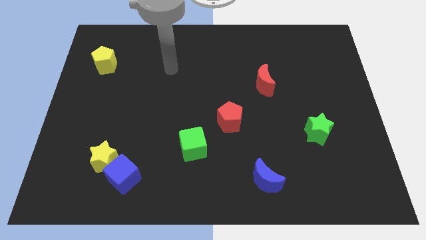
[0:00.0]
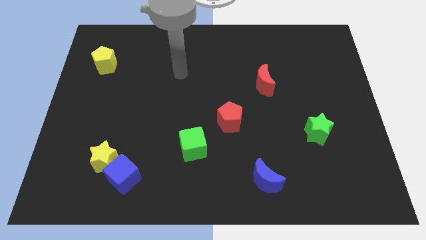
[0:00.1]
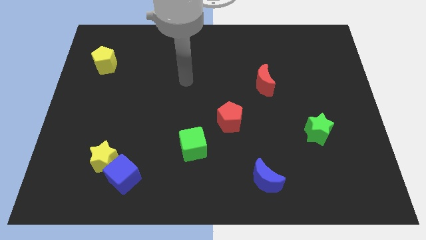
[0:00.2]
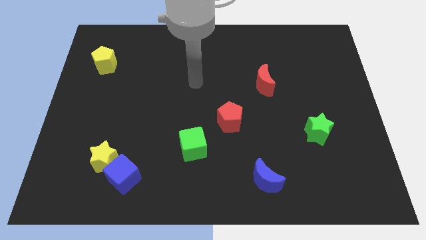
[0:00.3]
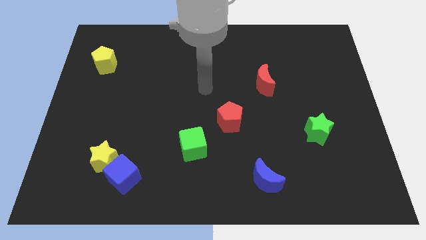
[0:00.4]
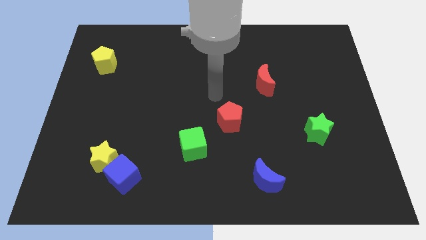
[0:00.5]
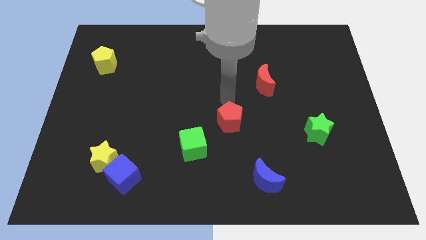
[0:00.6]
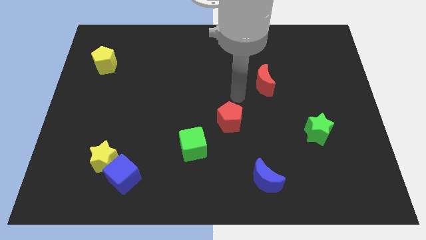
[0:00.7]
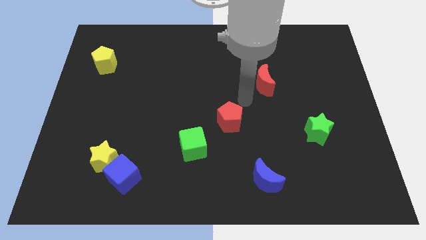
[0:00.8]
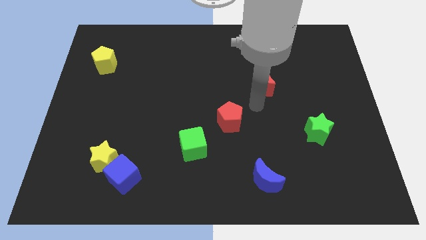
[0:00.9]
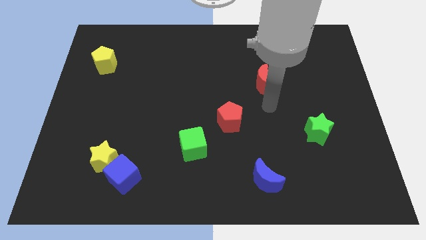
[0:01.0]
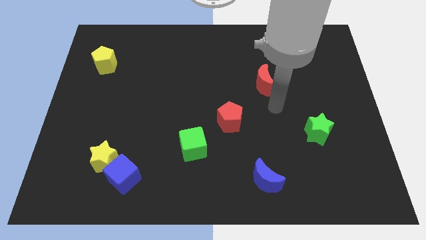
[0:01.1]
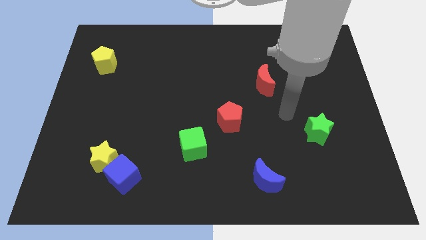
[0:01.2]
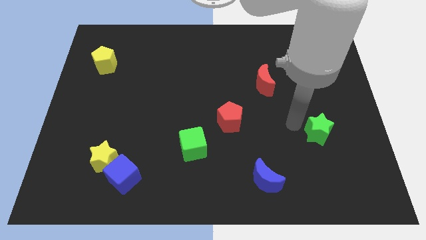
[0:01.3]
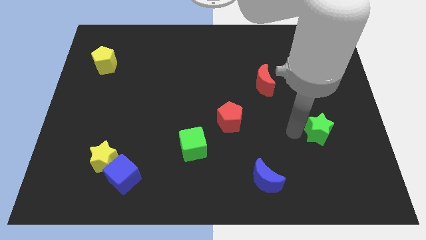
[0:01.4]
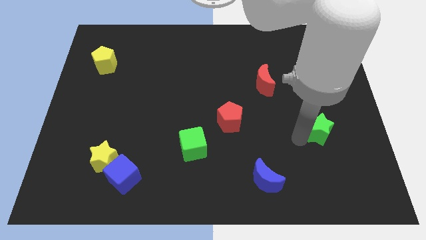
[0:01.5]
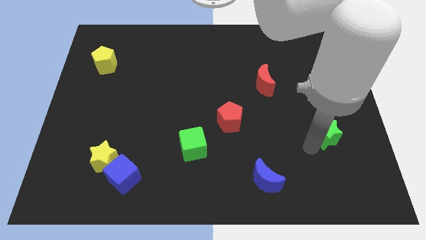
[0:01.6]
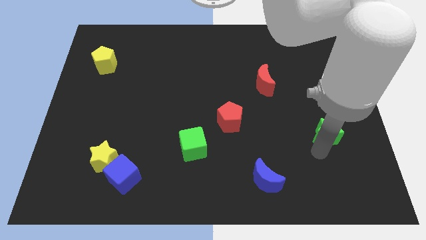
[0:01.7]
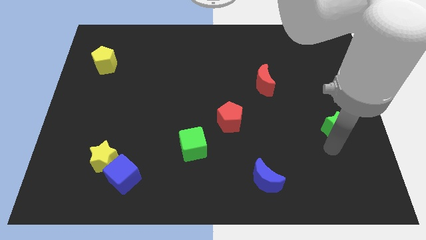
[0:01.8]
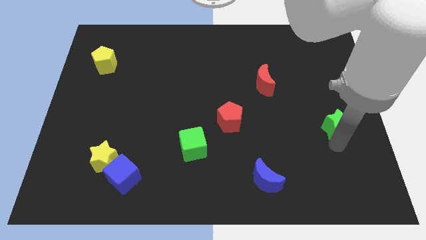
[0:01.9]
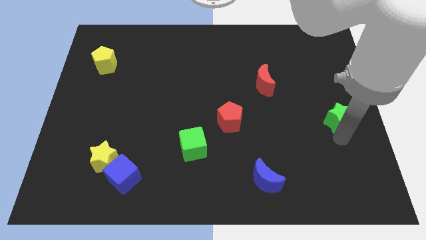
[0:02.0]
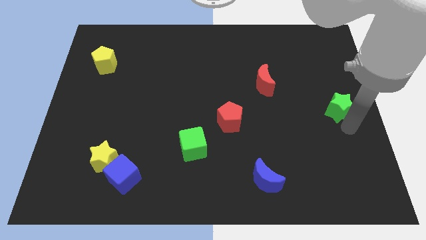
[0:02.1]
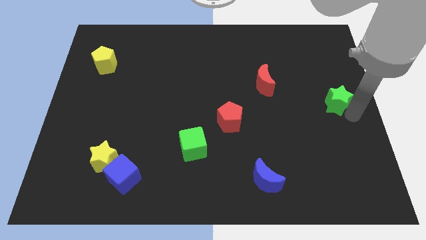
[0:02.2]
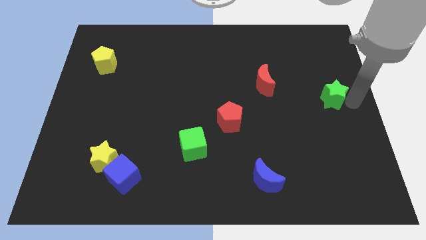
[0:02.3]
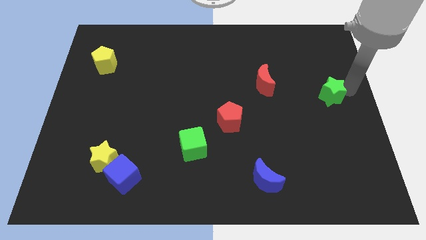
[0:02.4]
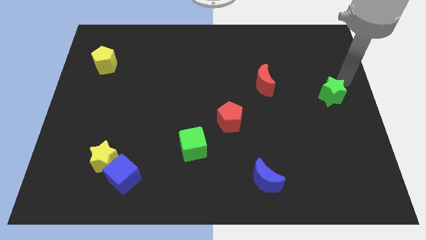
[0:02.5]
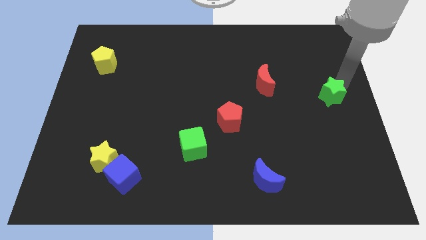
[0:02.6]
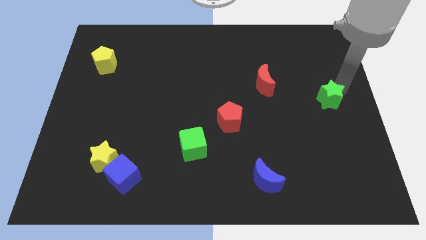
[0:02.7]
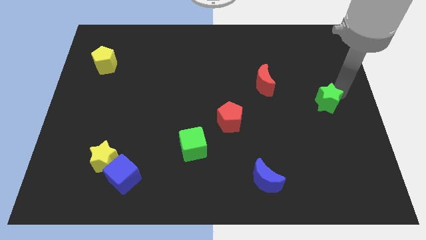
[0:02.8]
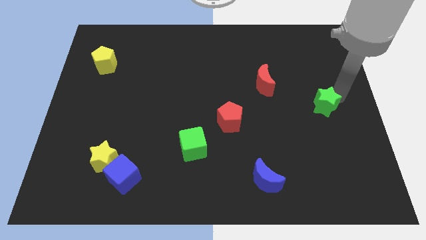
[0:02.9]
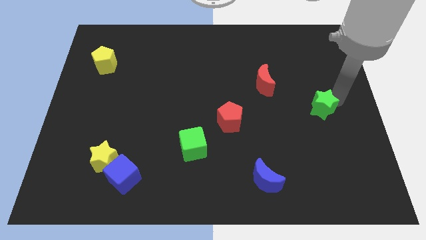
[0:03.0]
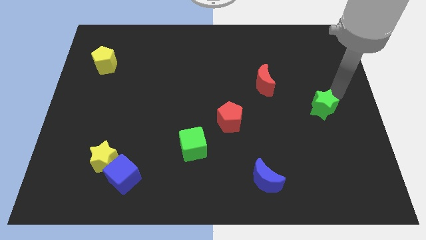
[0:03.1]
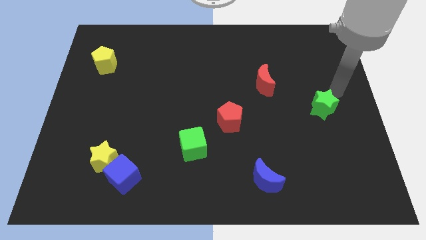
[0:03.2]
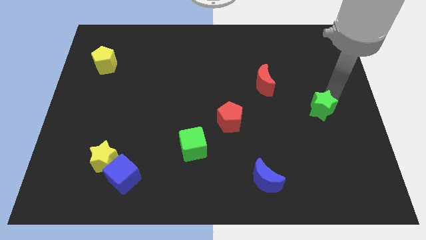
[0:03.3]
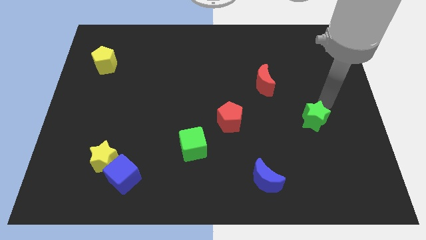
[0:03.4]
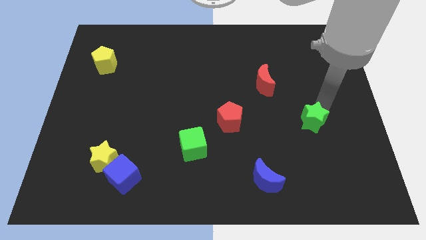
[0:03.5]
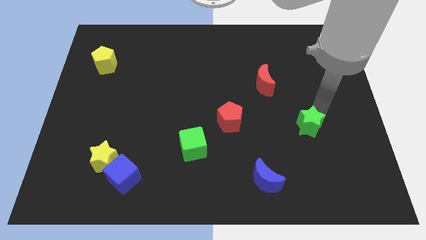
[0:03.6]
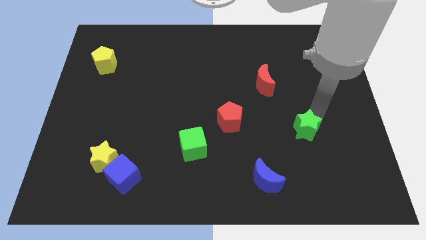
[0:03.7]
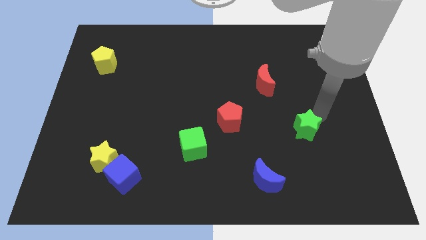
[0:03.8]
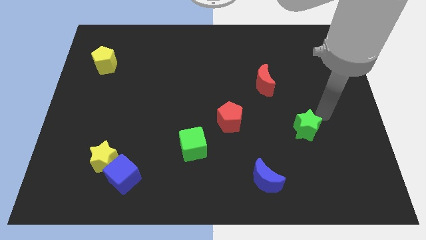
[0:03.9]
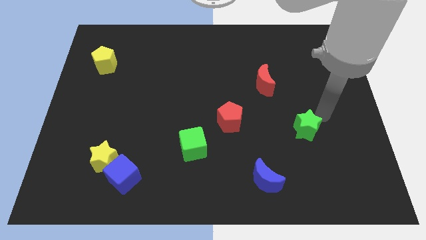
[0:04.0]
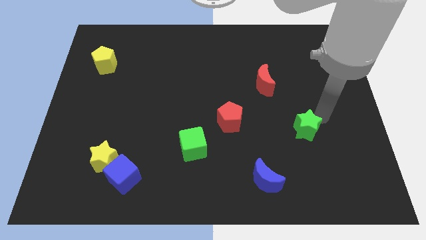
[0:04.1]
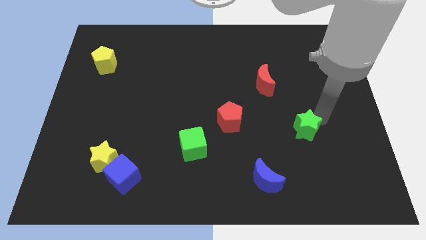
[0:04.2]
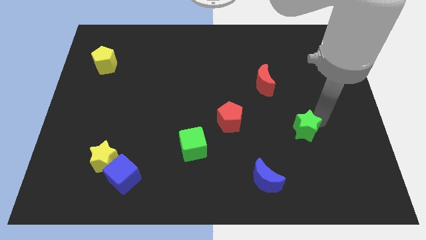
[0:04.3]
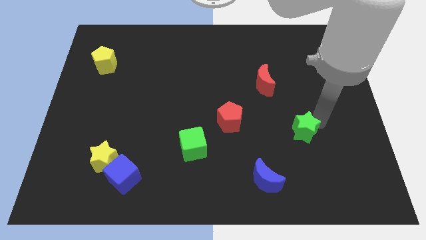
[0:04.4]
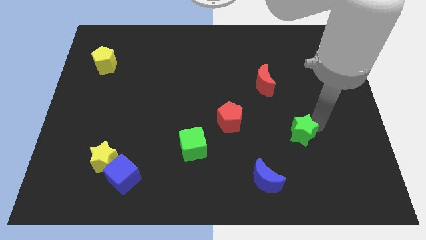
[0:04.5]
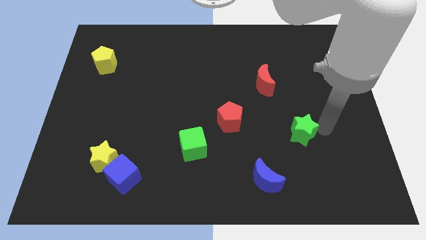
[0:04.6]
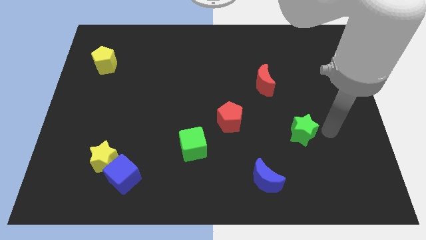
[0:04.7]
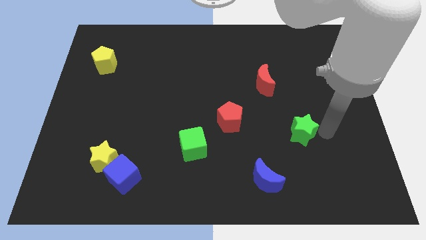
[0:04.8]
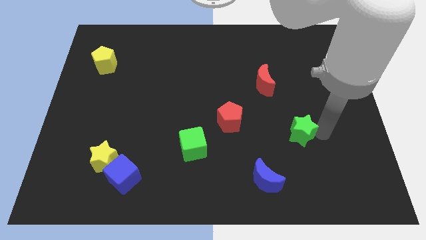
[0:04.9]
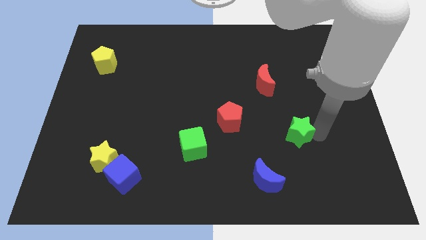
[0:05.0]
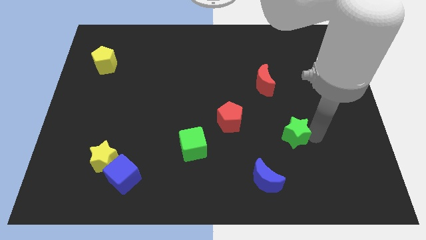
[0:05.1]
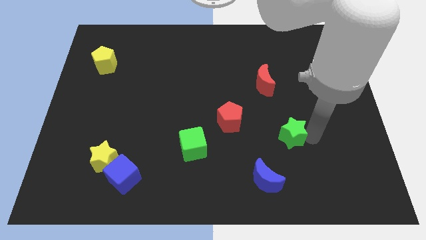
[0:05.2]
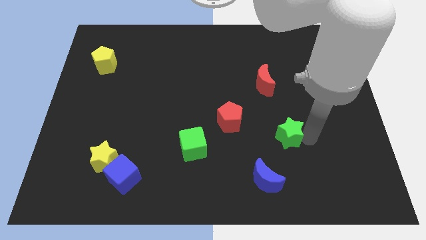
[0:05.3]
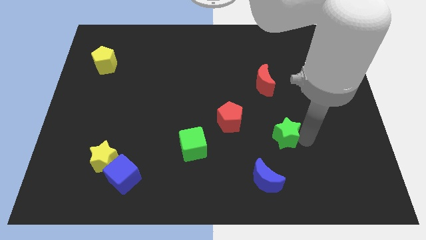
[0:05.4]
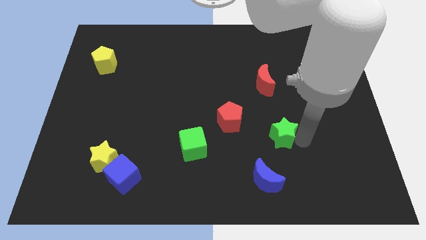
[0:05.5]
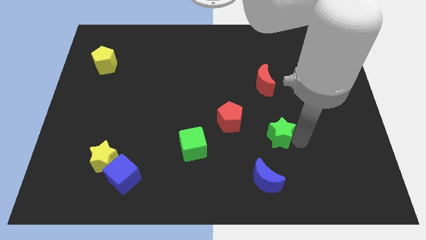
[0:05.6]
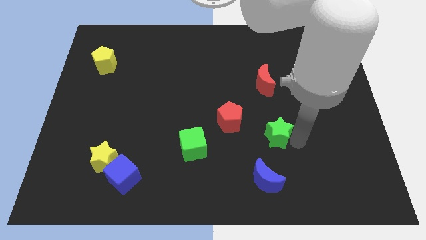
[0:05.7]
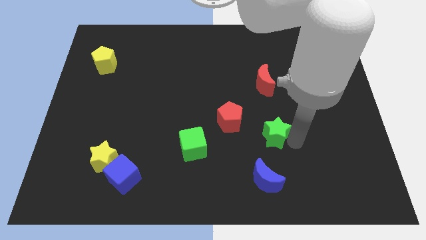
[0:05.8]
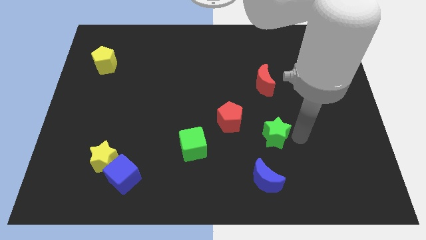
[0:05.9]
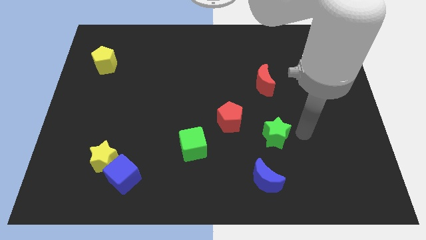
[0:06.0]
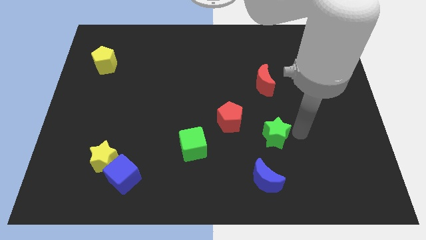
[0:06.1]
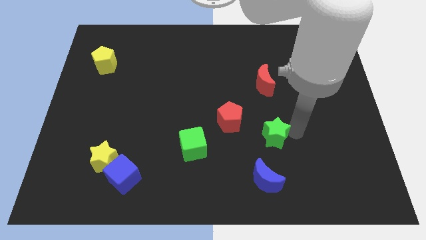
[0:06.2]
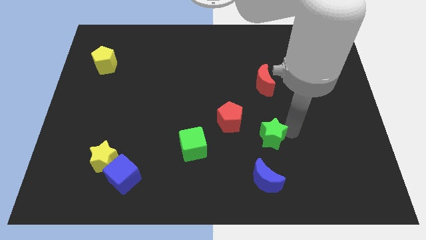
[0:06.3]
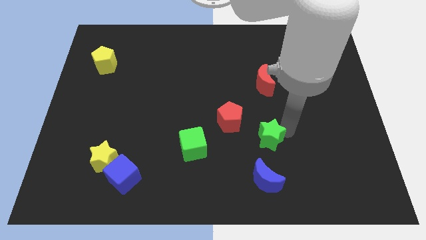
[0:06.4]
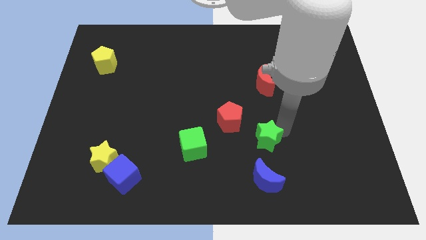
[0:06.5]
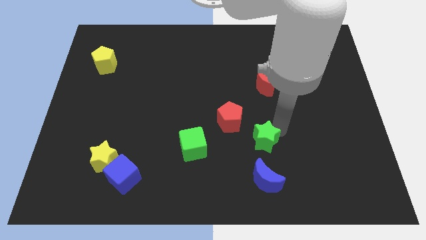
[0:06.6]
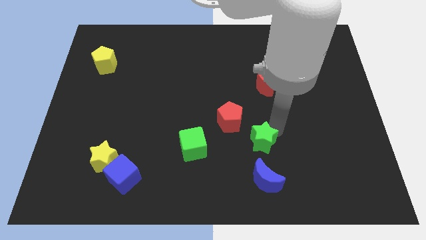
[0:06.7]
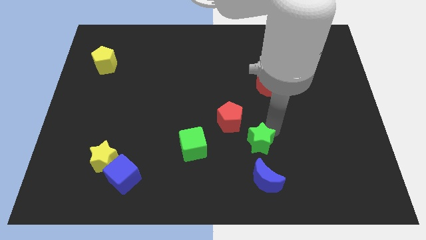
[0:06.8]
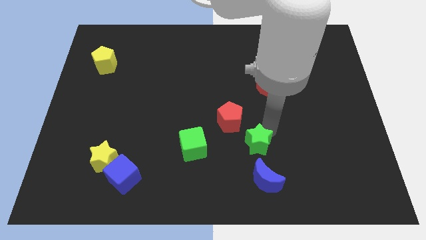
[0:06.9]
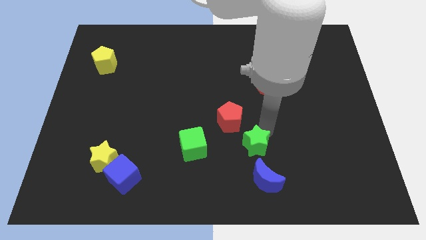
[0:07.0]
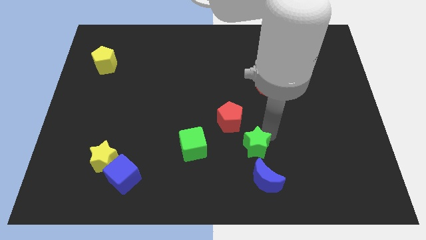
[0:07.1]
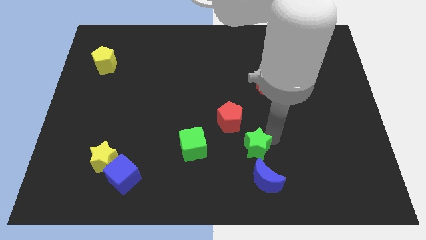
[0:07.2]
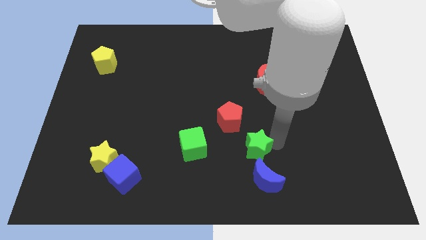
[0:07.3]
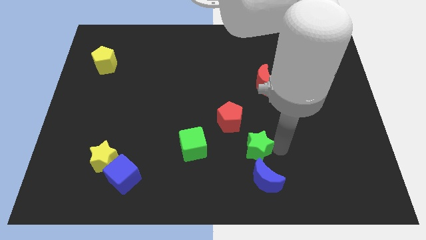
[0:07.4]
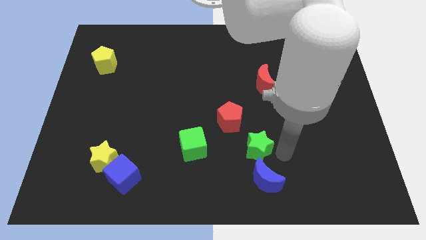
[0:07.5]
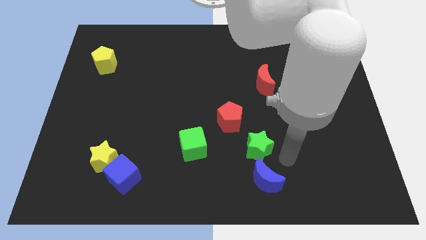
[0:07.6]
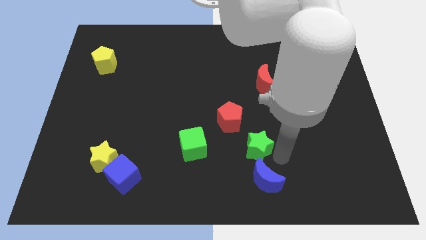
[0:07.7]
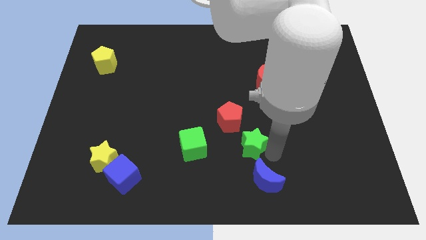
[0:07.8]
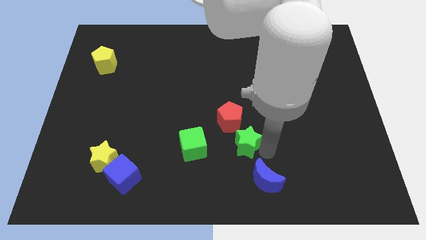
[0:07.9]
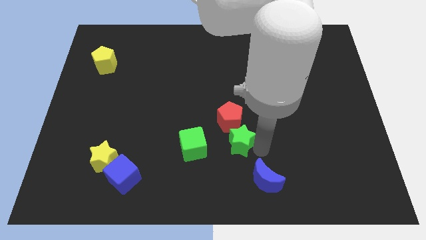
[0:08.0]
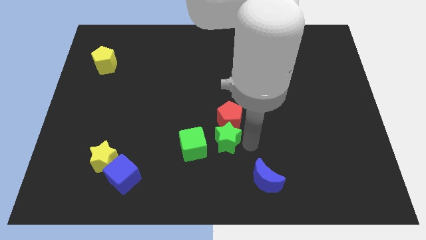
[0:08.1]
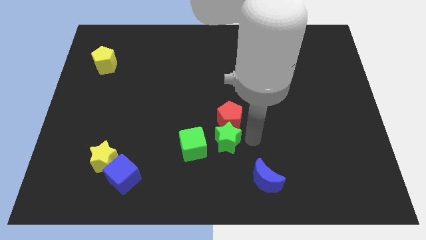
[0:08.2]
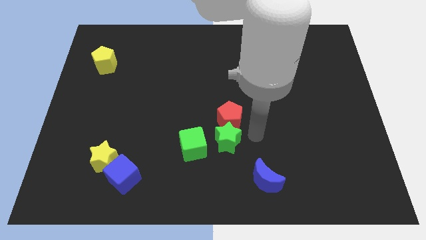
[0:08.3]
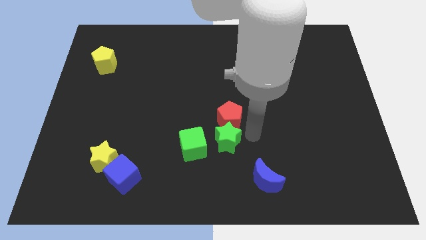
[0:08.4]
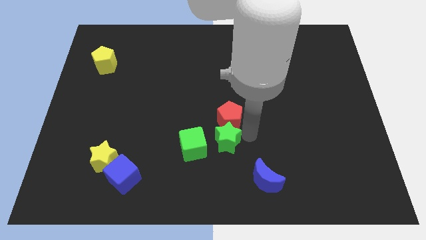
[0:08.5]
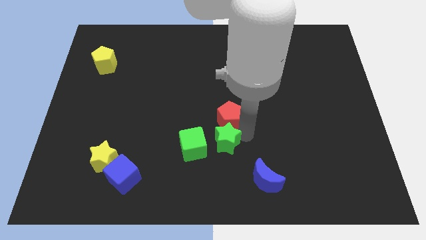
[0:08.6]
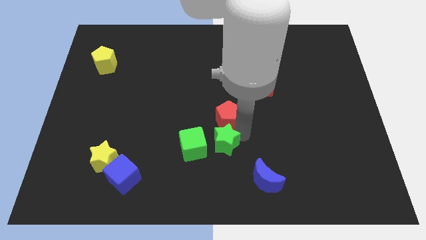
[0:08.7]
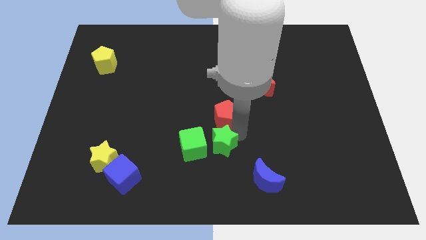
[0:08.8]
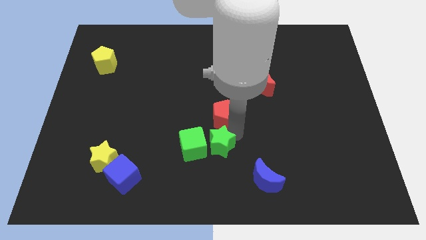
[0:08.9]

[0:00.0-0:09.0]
push the green star next to the green cube
